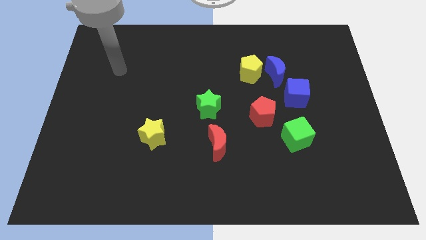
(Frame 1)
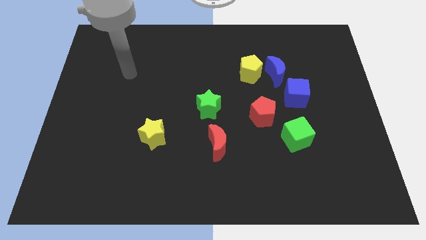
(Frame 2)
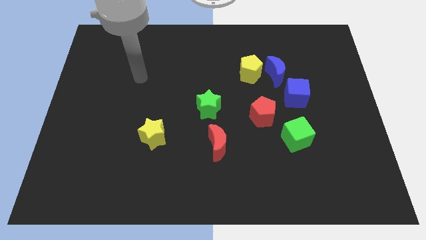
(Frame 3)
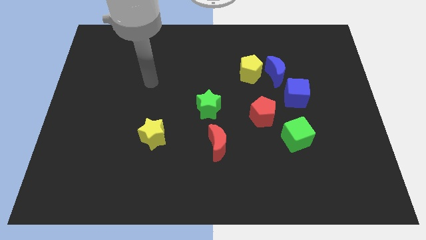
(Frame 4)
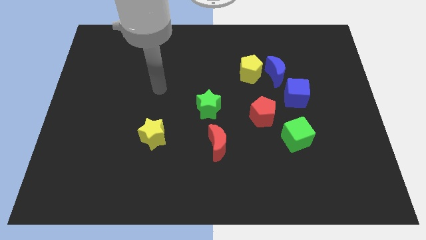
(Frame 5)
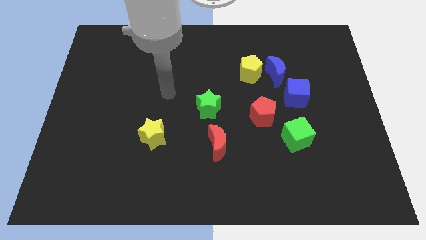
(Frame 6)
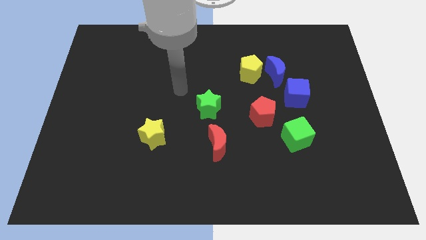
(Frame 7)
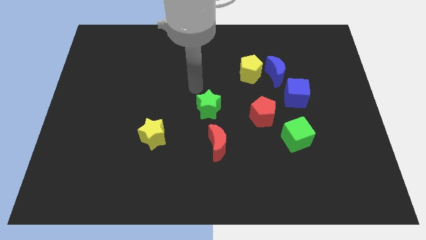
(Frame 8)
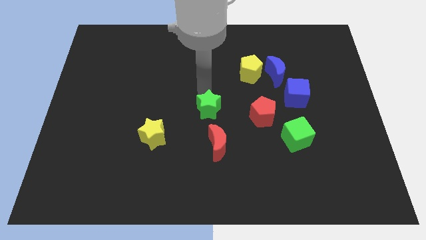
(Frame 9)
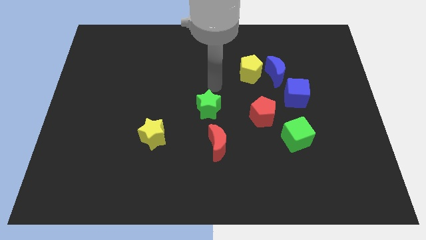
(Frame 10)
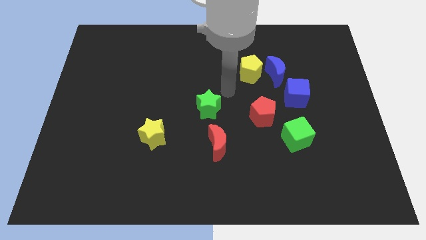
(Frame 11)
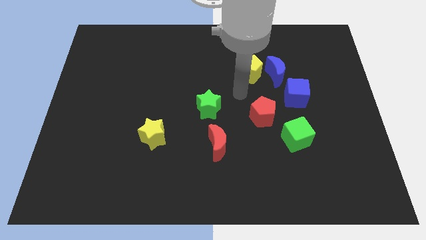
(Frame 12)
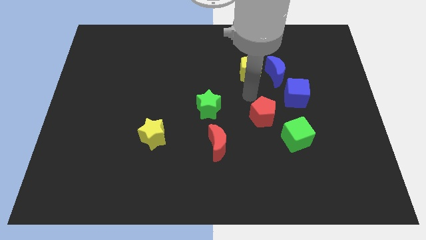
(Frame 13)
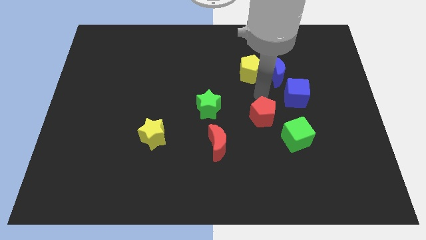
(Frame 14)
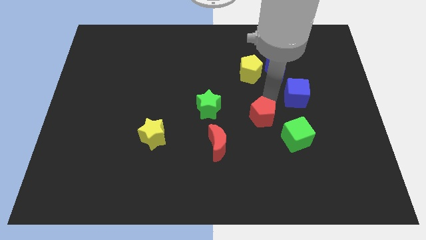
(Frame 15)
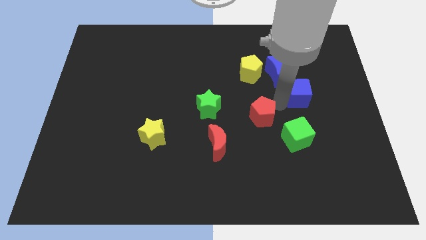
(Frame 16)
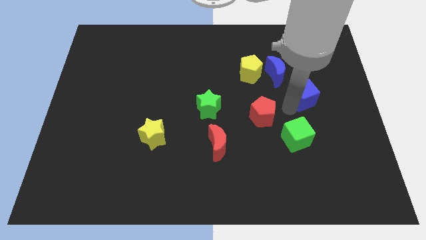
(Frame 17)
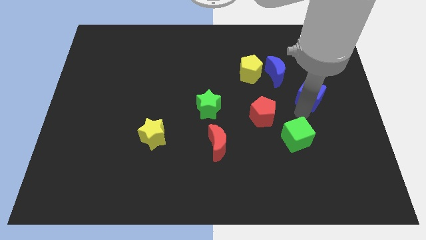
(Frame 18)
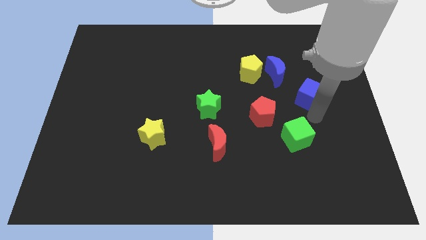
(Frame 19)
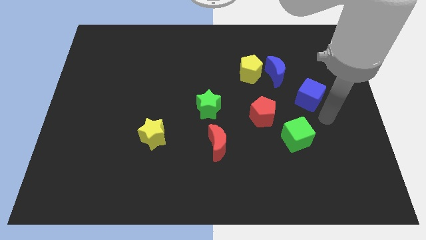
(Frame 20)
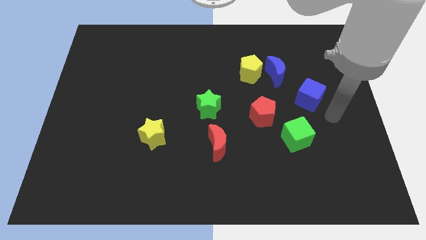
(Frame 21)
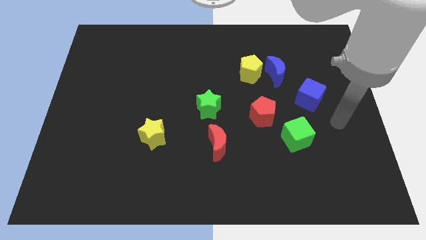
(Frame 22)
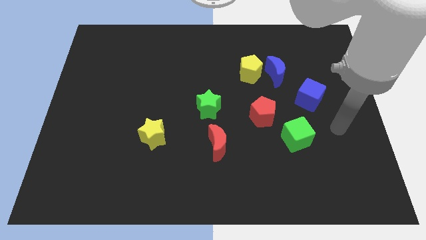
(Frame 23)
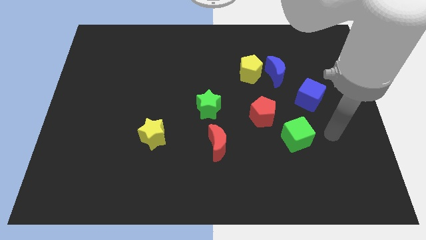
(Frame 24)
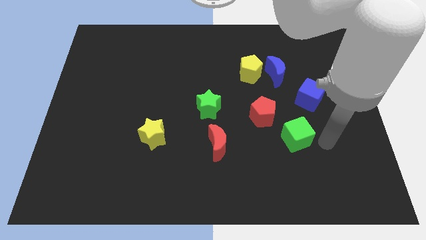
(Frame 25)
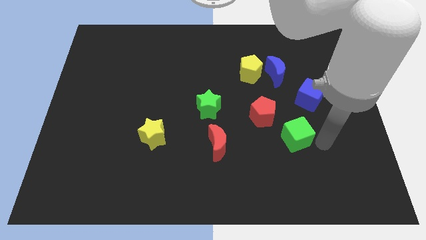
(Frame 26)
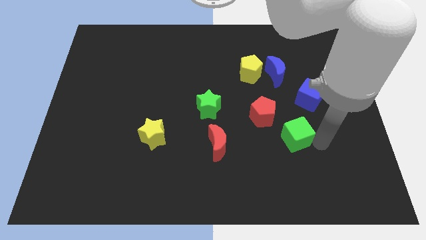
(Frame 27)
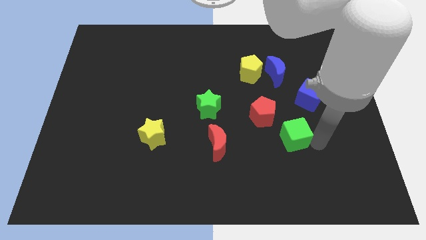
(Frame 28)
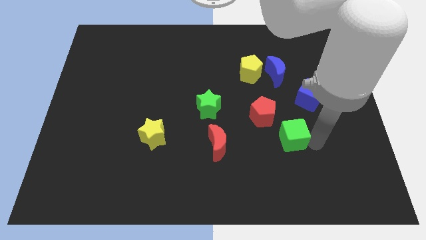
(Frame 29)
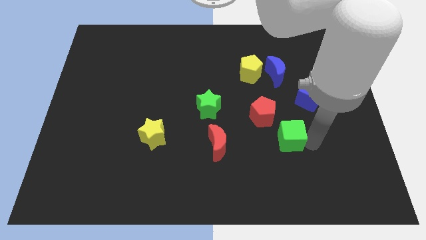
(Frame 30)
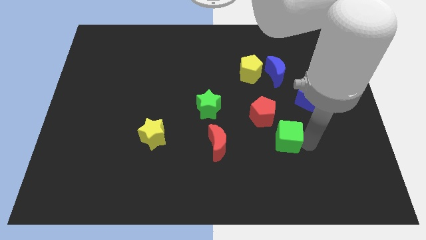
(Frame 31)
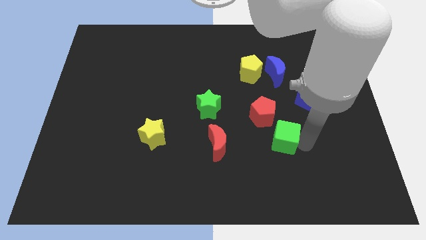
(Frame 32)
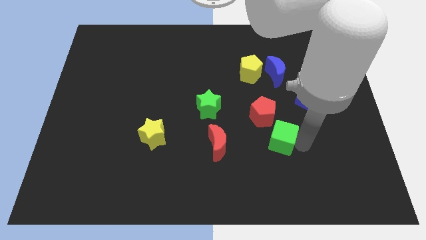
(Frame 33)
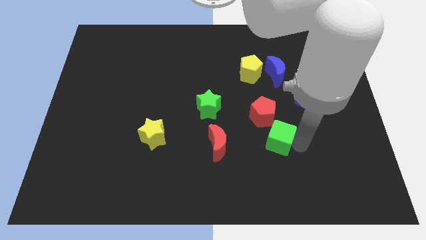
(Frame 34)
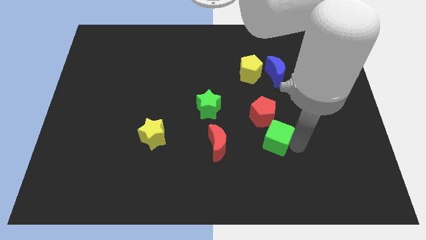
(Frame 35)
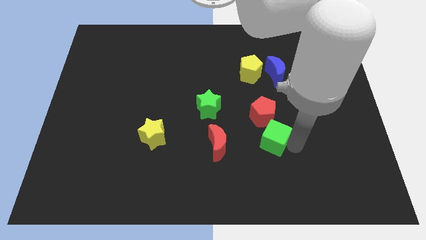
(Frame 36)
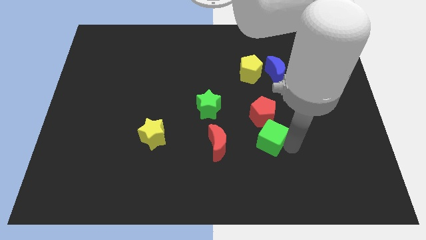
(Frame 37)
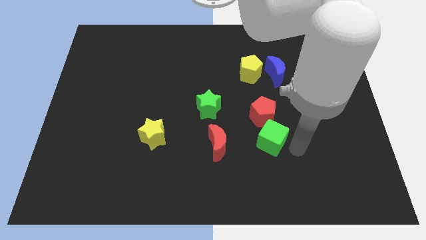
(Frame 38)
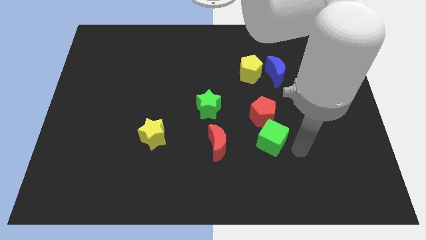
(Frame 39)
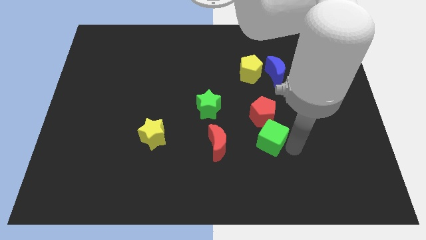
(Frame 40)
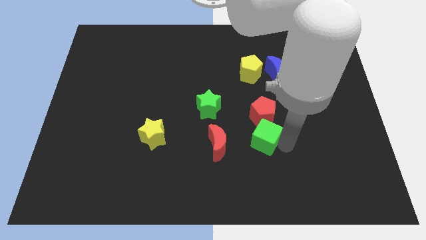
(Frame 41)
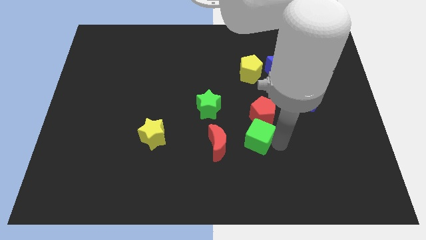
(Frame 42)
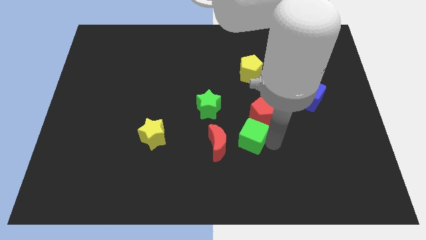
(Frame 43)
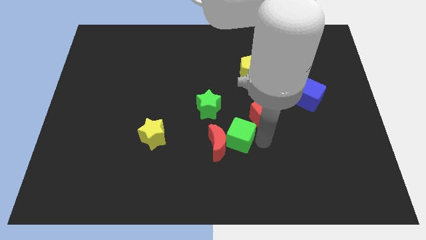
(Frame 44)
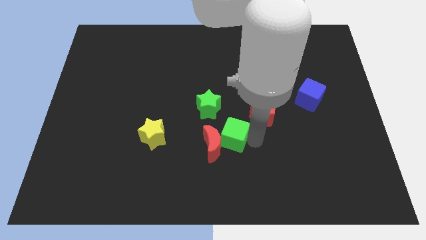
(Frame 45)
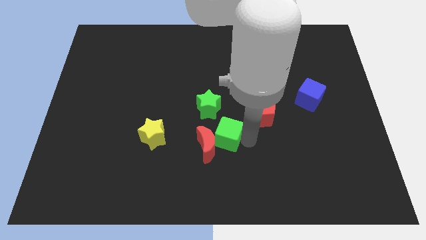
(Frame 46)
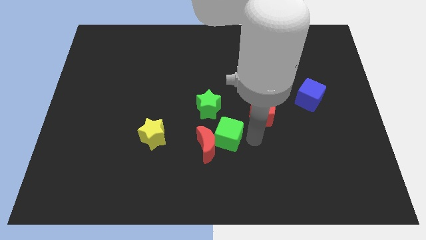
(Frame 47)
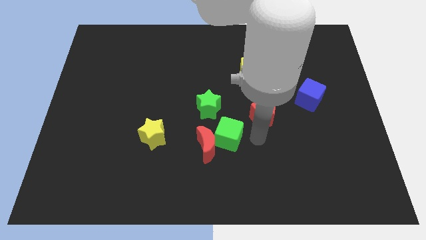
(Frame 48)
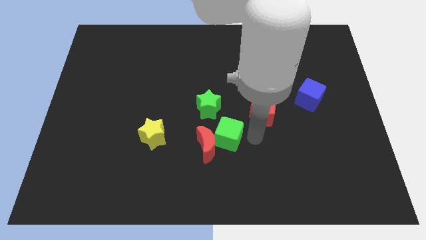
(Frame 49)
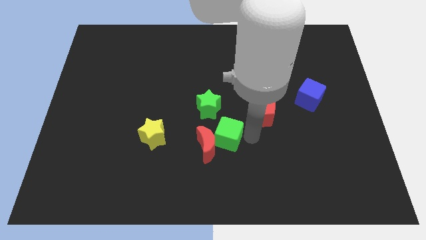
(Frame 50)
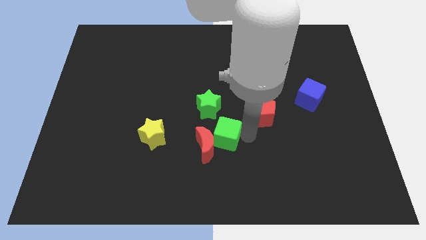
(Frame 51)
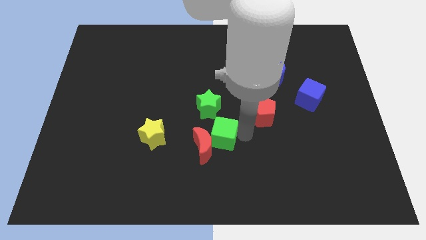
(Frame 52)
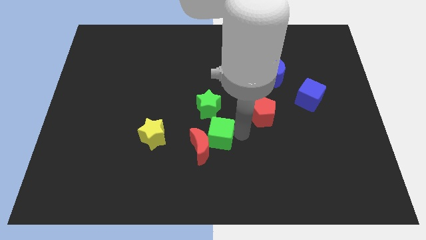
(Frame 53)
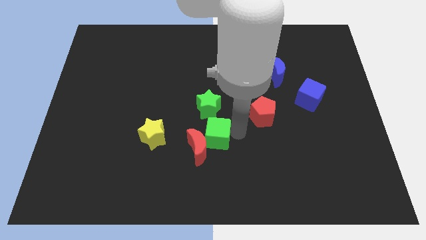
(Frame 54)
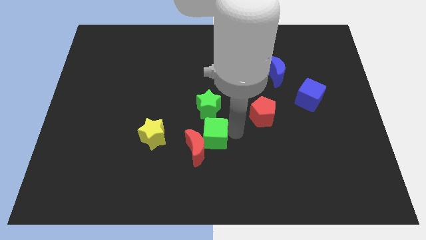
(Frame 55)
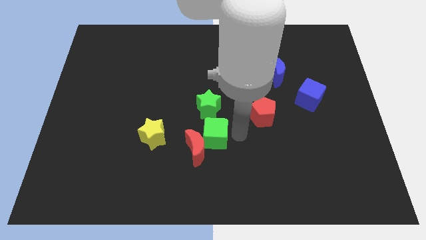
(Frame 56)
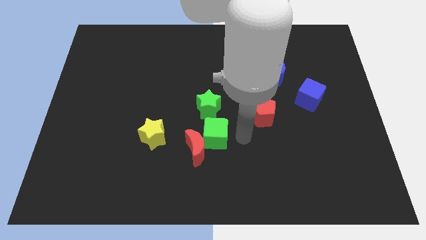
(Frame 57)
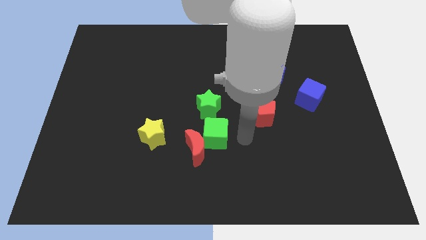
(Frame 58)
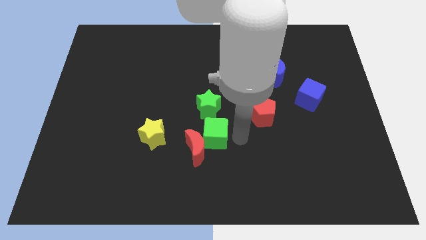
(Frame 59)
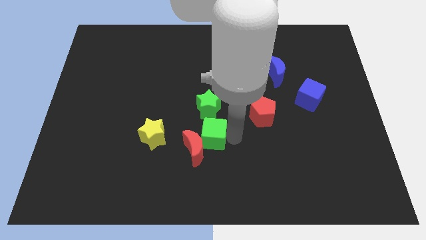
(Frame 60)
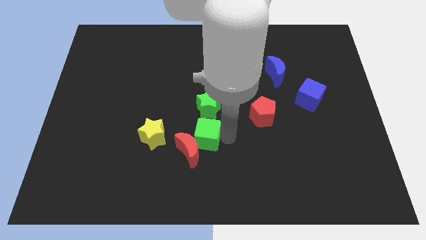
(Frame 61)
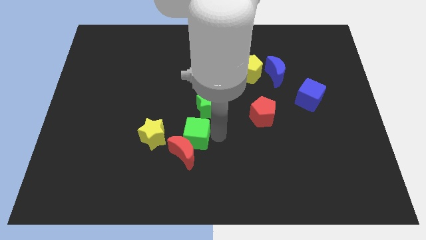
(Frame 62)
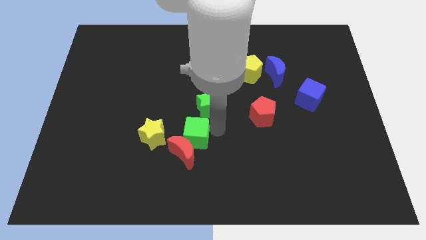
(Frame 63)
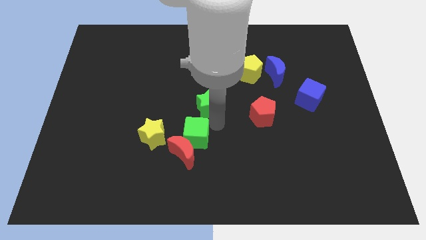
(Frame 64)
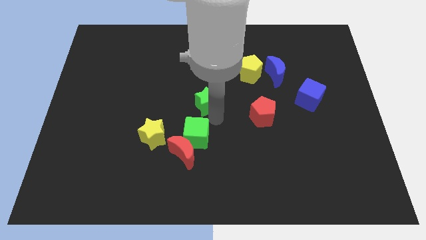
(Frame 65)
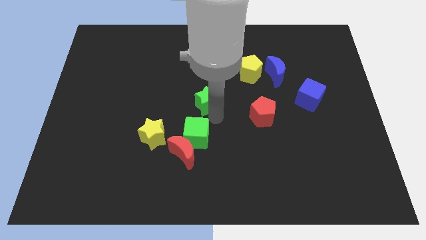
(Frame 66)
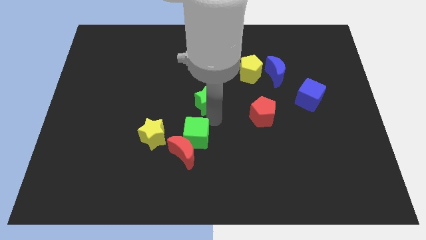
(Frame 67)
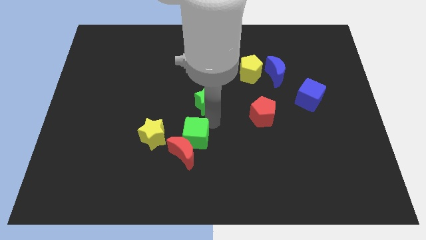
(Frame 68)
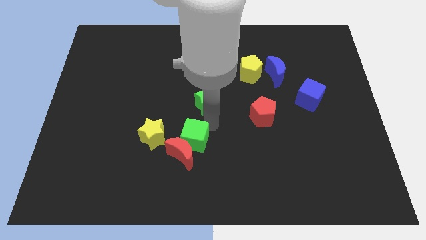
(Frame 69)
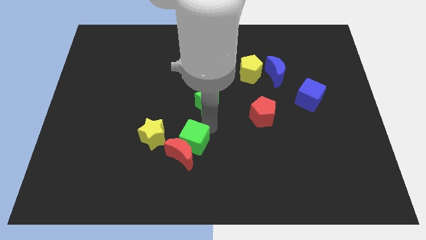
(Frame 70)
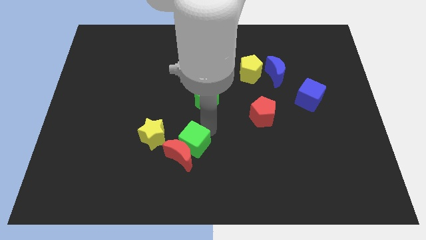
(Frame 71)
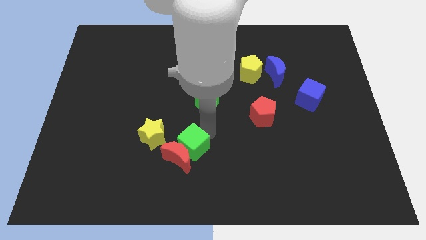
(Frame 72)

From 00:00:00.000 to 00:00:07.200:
move the green cube to the bottom right side of the yellow star
